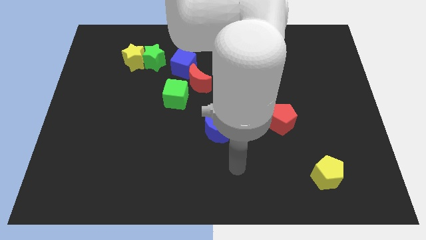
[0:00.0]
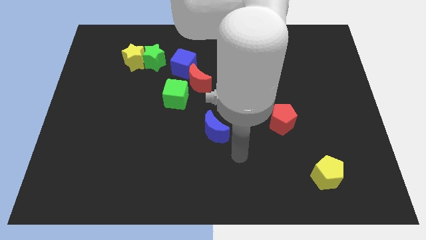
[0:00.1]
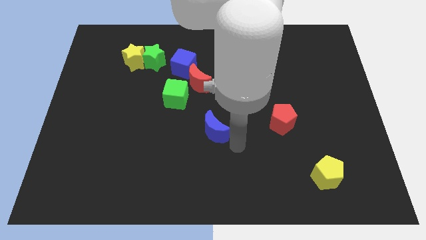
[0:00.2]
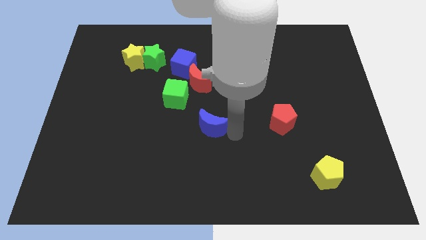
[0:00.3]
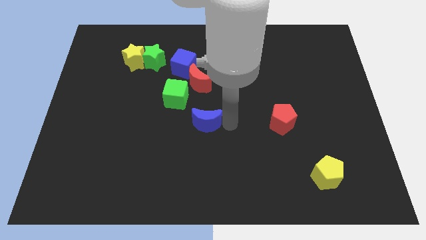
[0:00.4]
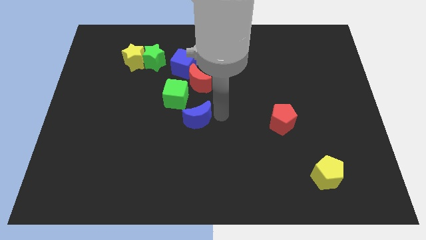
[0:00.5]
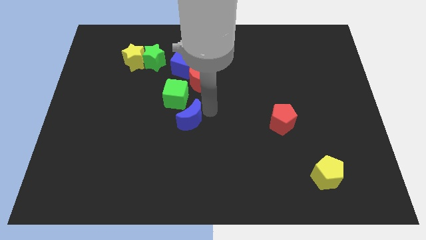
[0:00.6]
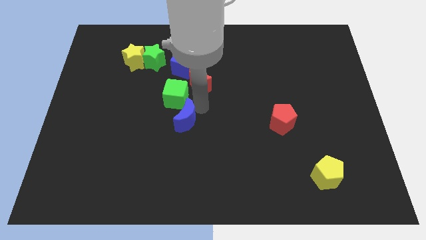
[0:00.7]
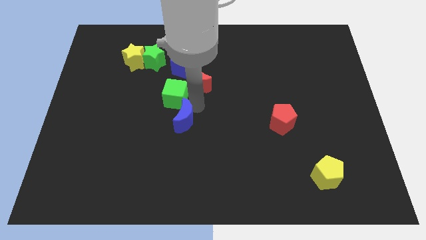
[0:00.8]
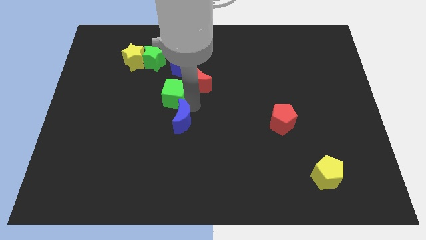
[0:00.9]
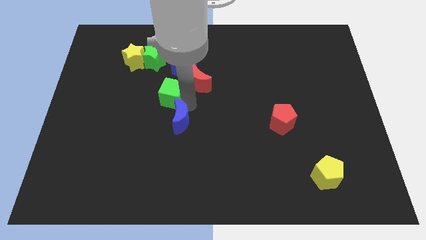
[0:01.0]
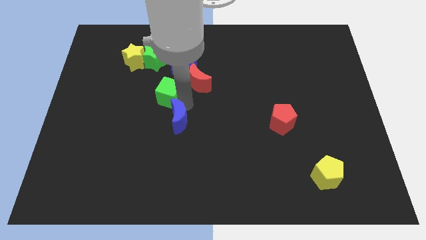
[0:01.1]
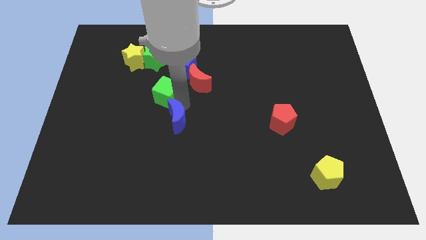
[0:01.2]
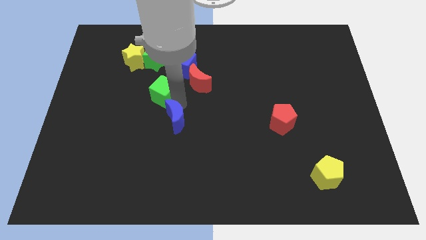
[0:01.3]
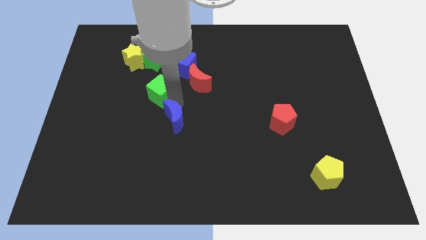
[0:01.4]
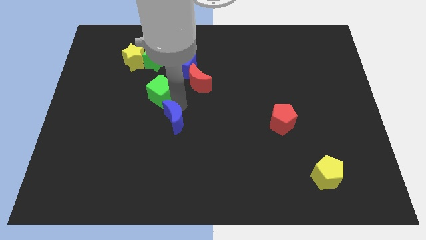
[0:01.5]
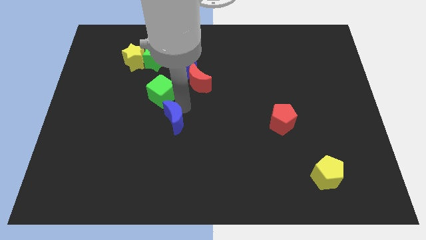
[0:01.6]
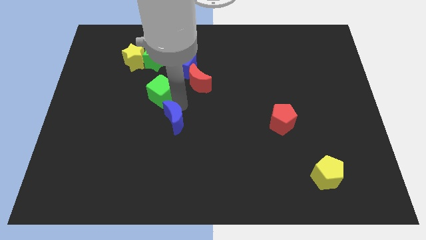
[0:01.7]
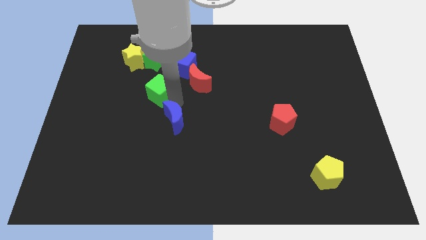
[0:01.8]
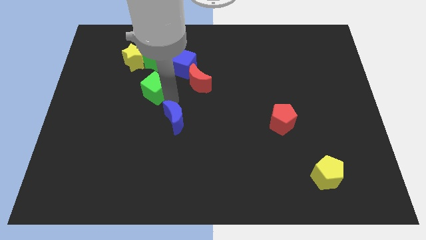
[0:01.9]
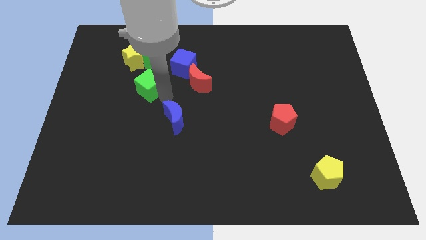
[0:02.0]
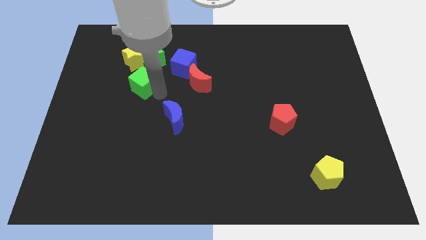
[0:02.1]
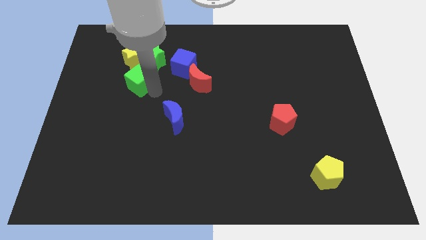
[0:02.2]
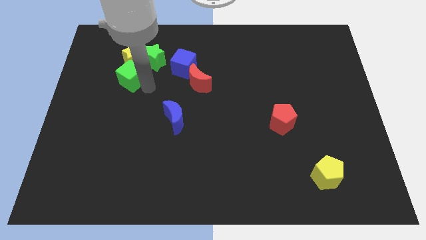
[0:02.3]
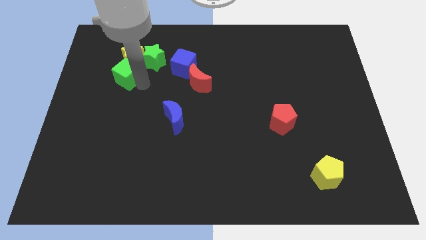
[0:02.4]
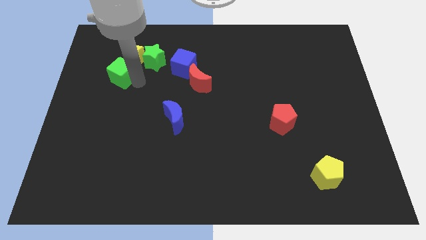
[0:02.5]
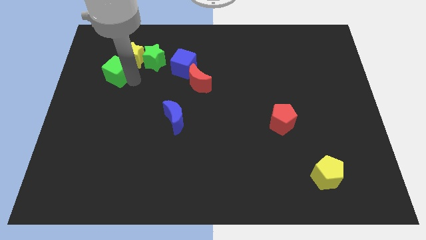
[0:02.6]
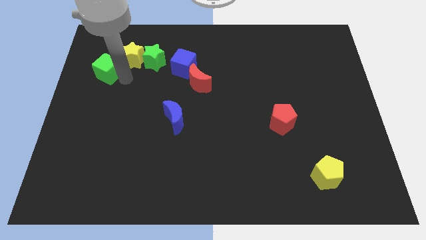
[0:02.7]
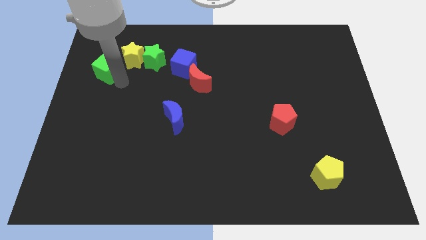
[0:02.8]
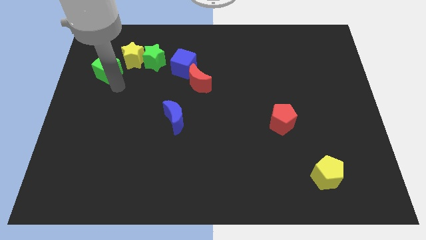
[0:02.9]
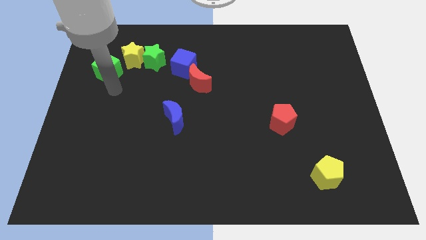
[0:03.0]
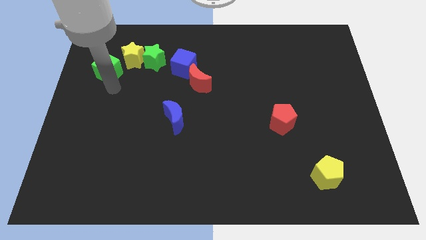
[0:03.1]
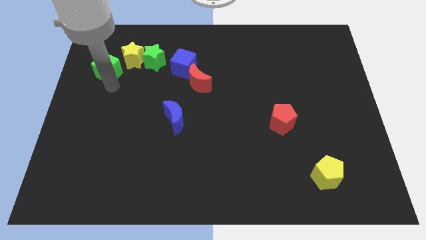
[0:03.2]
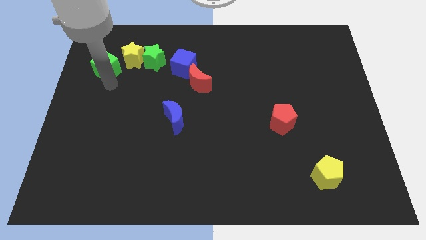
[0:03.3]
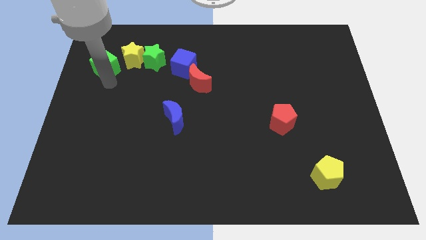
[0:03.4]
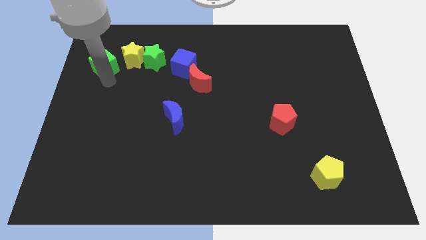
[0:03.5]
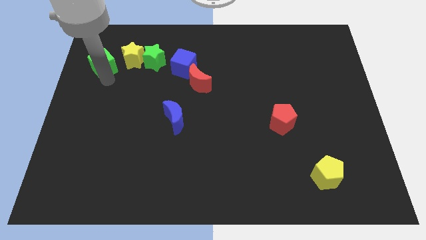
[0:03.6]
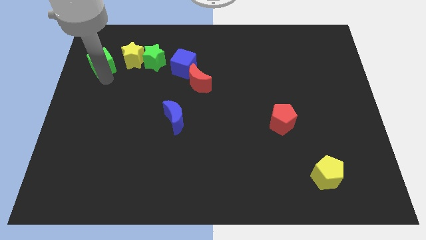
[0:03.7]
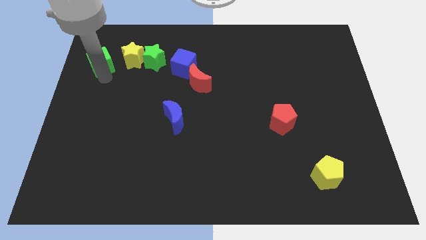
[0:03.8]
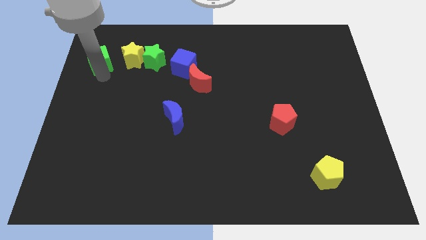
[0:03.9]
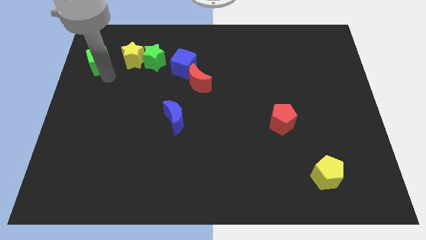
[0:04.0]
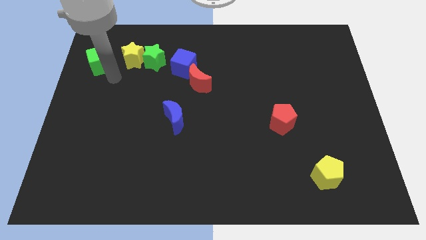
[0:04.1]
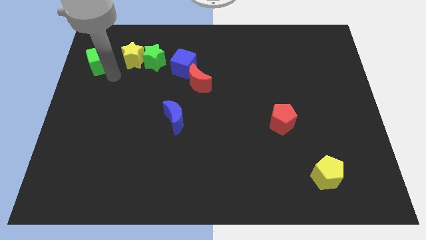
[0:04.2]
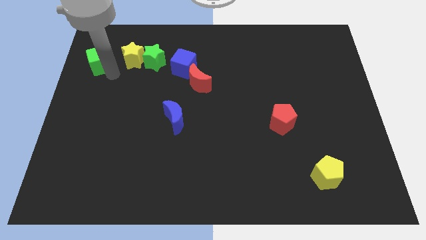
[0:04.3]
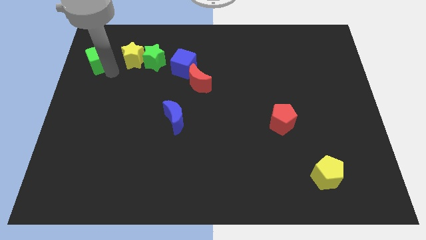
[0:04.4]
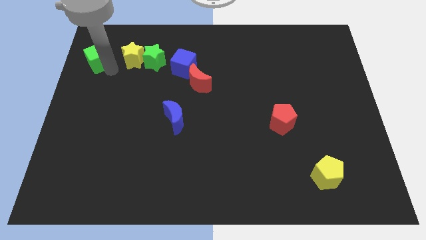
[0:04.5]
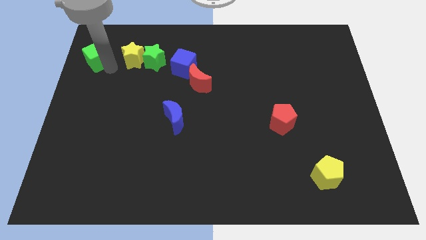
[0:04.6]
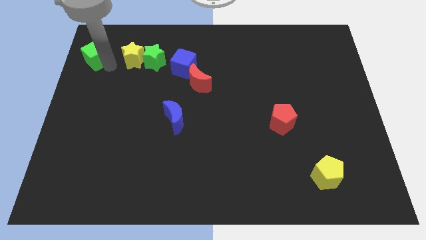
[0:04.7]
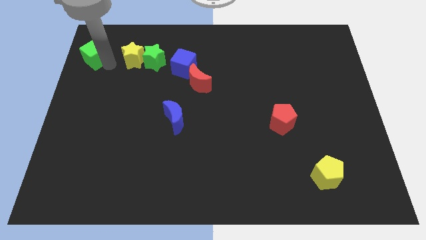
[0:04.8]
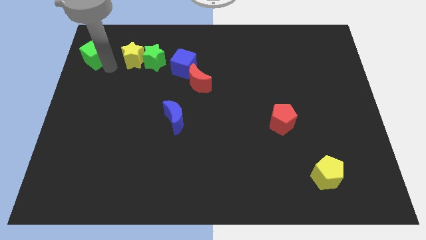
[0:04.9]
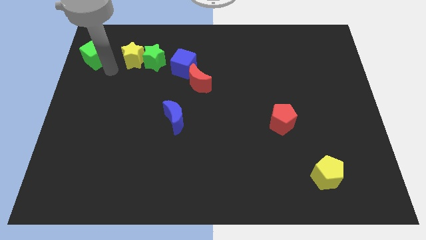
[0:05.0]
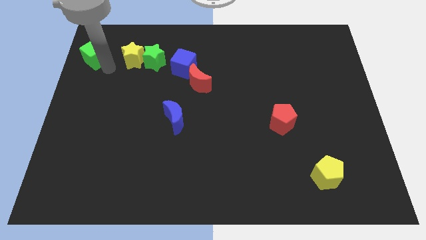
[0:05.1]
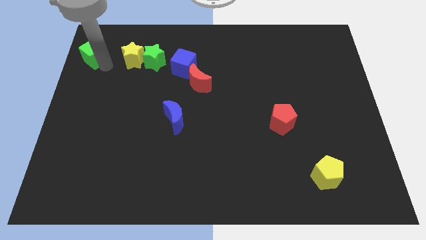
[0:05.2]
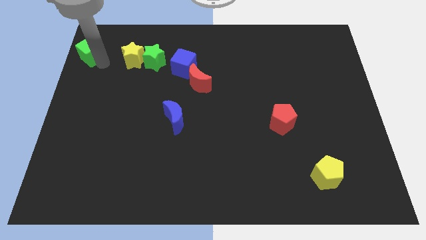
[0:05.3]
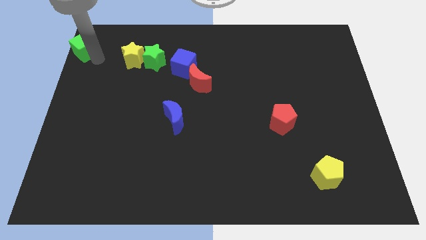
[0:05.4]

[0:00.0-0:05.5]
slide the green cube to the top left

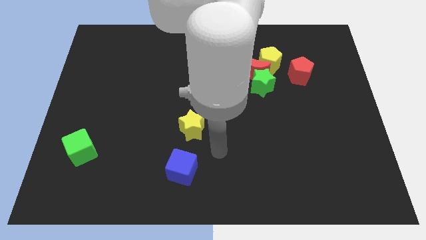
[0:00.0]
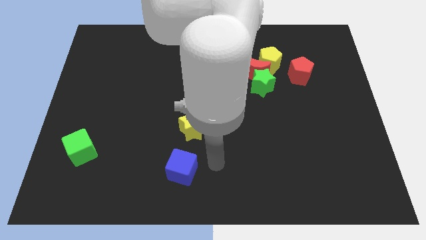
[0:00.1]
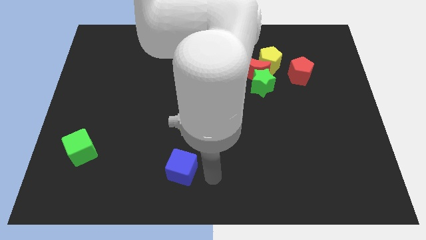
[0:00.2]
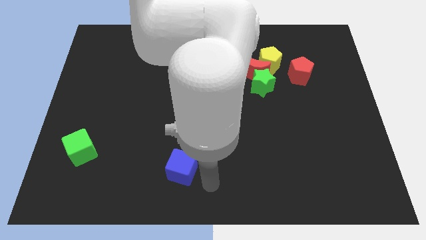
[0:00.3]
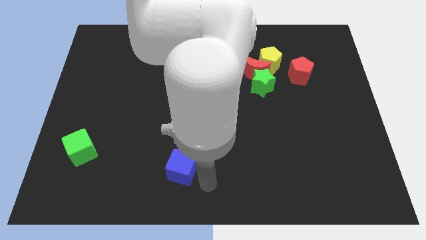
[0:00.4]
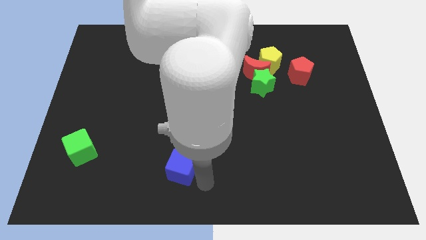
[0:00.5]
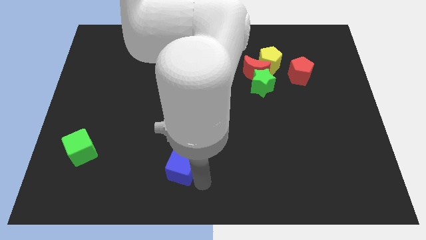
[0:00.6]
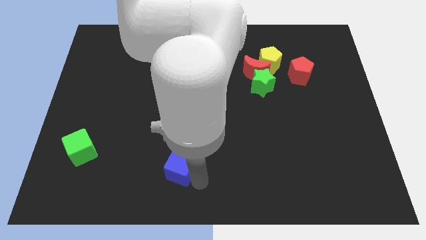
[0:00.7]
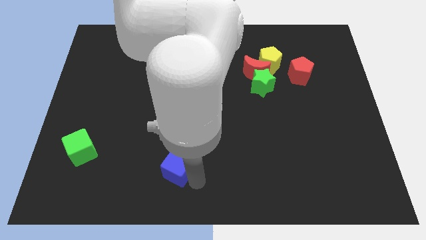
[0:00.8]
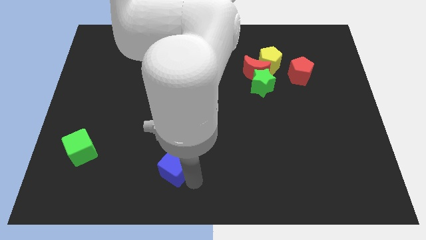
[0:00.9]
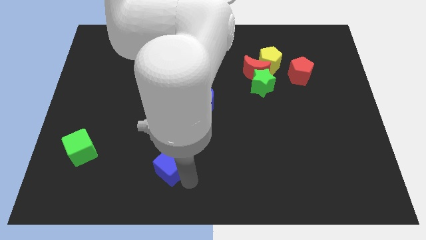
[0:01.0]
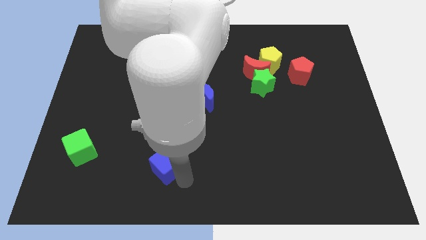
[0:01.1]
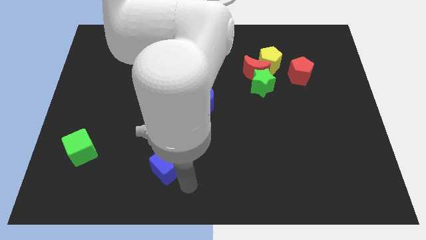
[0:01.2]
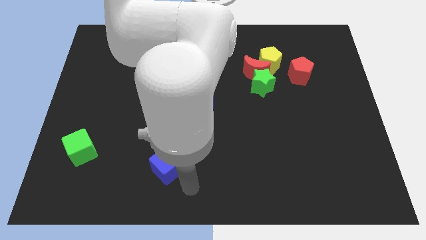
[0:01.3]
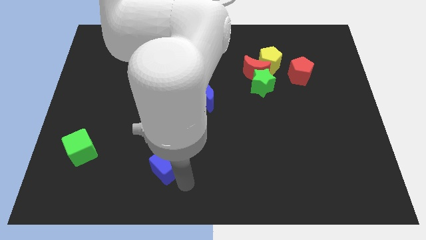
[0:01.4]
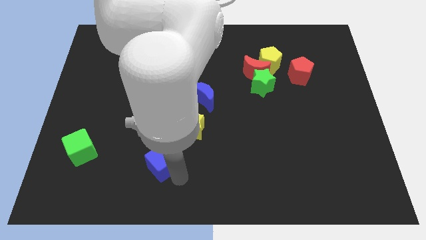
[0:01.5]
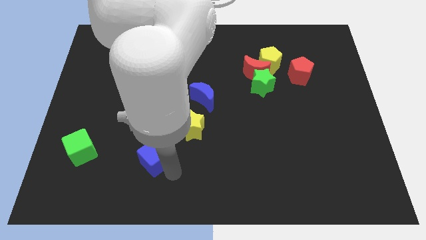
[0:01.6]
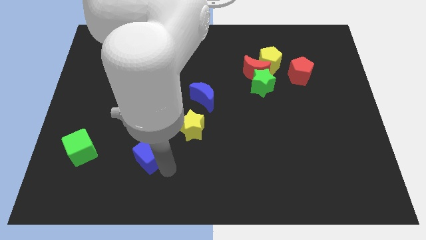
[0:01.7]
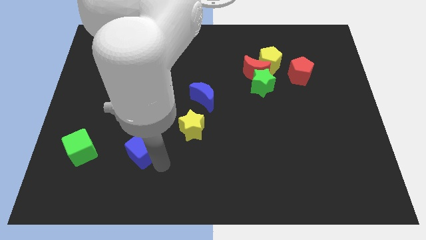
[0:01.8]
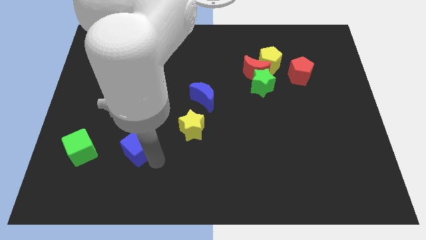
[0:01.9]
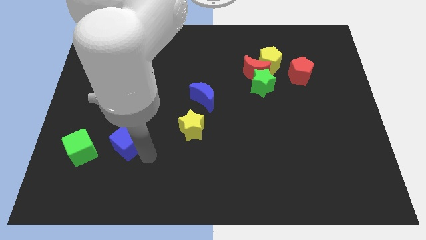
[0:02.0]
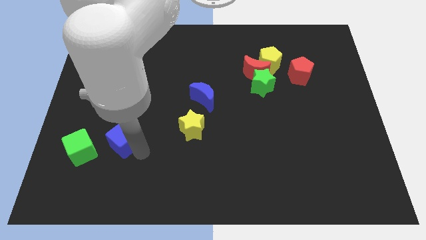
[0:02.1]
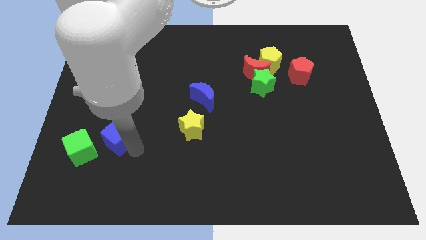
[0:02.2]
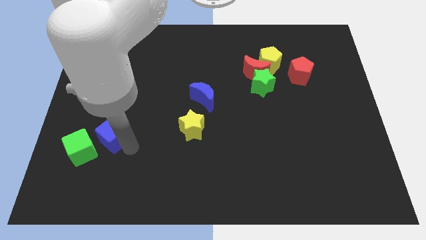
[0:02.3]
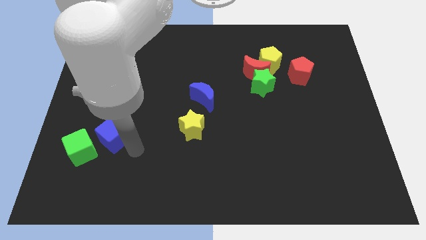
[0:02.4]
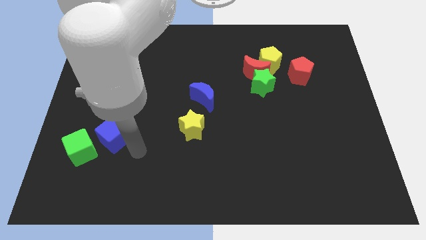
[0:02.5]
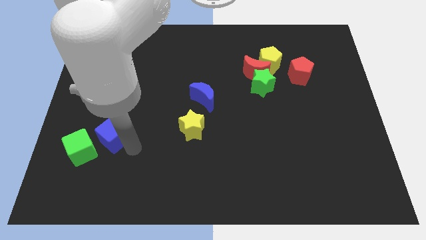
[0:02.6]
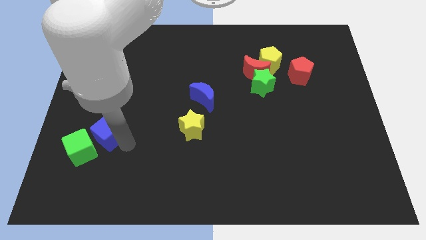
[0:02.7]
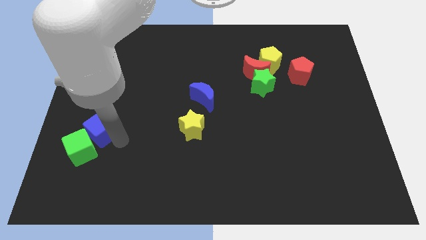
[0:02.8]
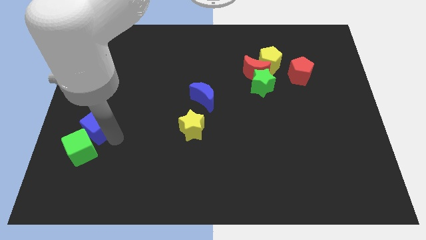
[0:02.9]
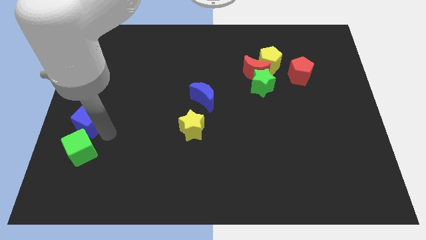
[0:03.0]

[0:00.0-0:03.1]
move the blue cube to the left side
